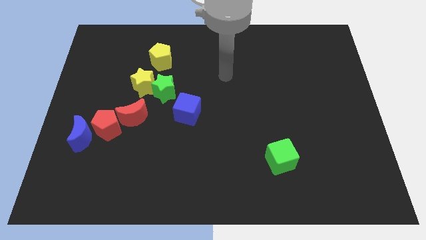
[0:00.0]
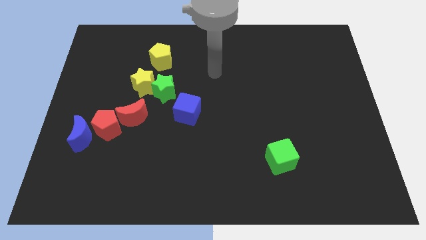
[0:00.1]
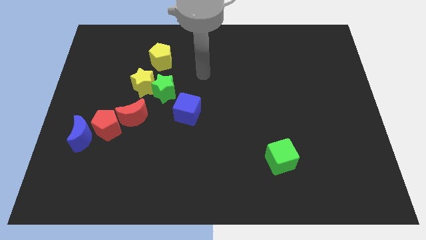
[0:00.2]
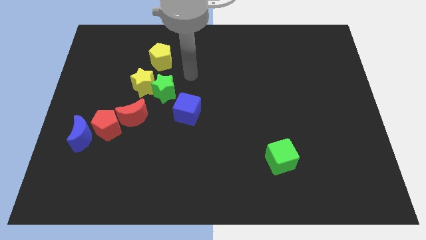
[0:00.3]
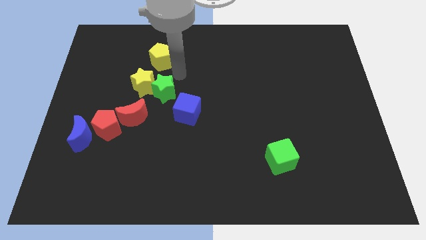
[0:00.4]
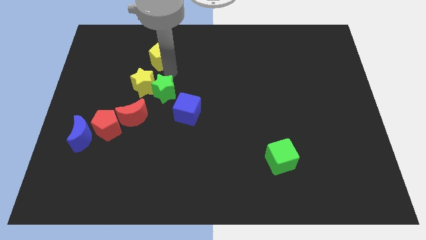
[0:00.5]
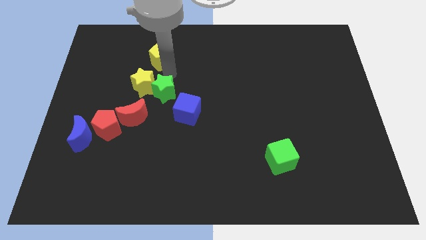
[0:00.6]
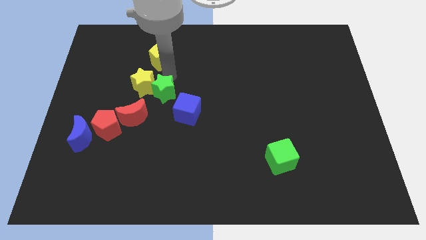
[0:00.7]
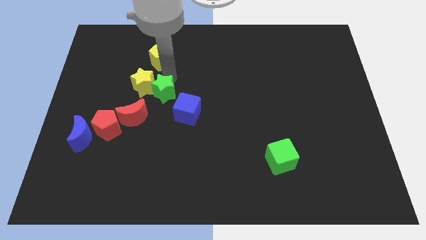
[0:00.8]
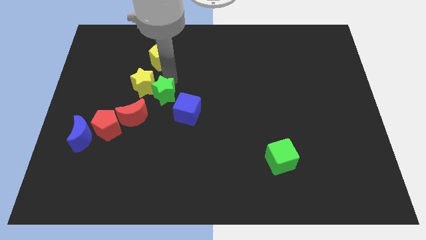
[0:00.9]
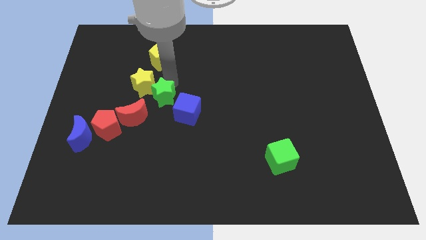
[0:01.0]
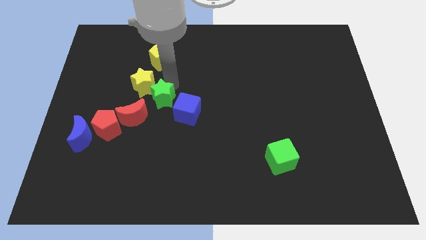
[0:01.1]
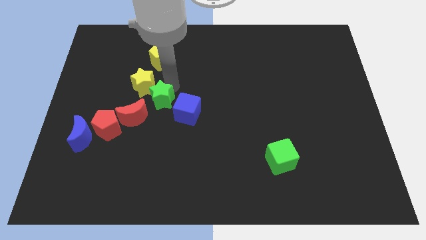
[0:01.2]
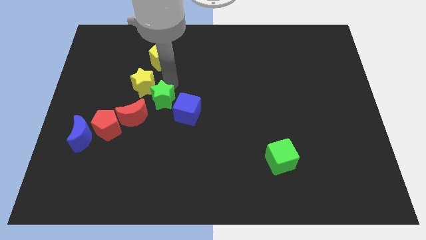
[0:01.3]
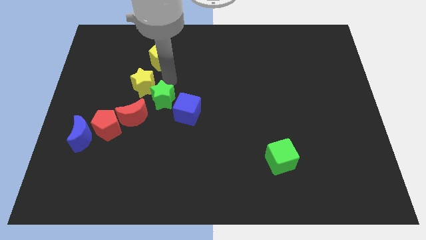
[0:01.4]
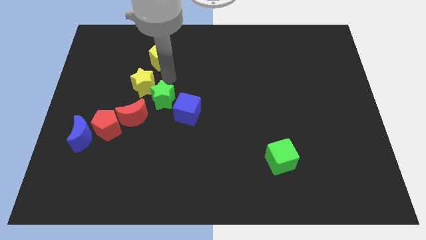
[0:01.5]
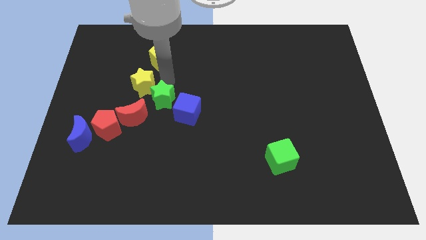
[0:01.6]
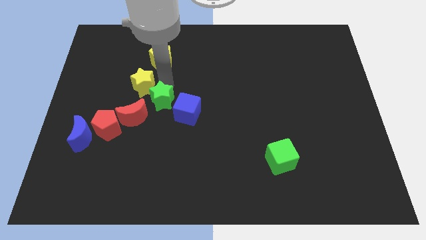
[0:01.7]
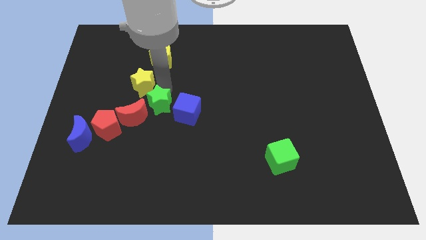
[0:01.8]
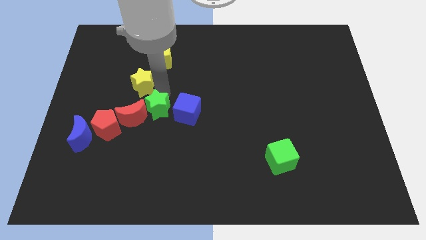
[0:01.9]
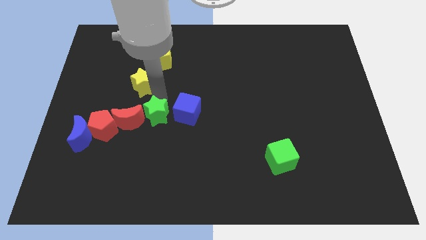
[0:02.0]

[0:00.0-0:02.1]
push the green star a bit down

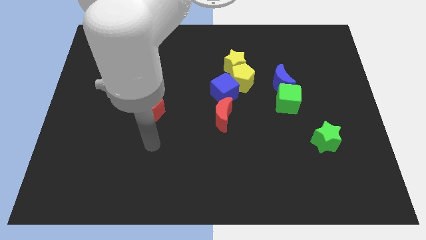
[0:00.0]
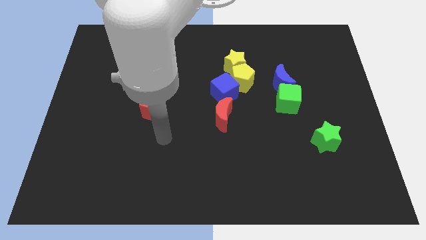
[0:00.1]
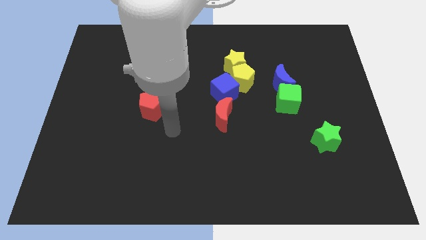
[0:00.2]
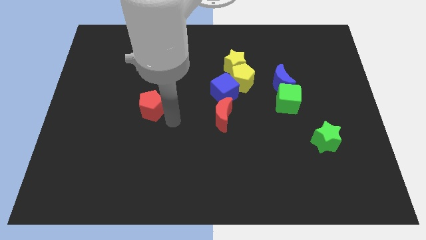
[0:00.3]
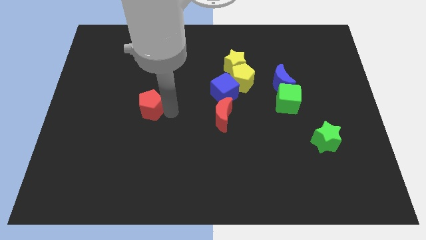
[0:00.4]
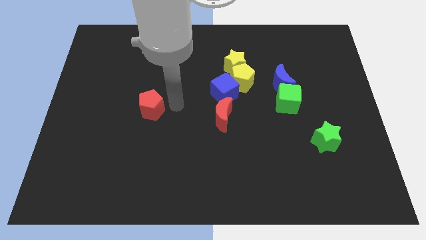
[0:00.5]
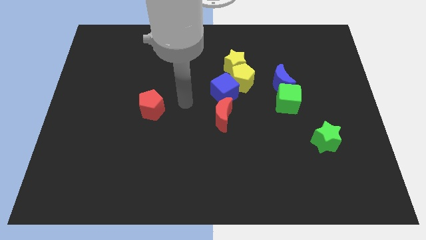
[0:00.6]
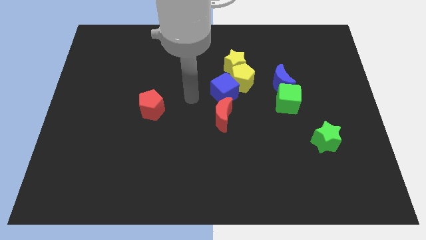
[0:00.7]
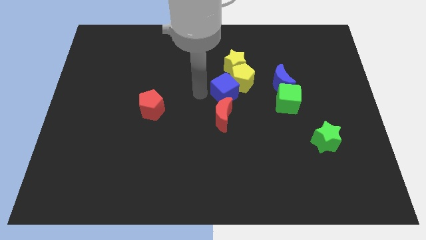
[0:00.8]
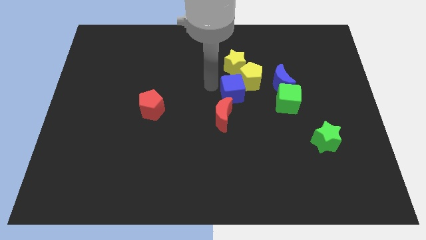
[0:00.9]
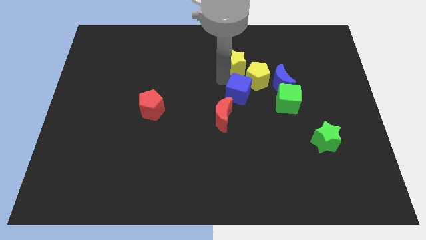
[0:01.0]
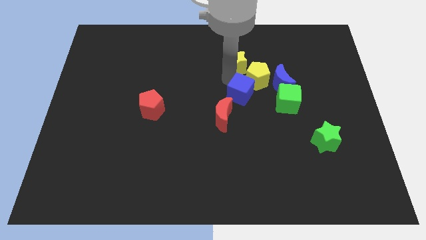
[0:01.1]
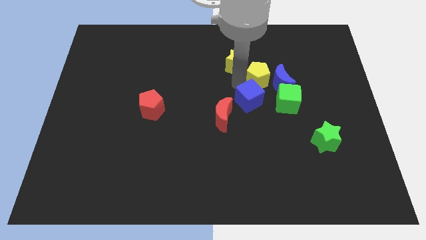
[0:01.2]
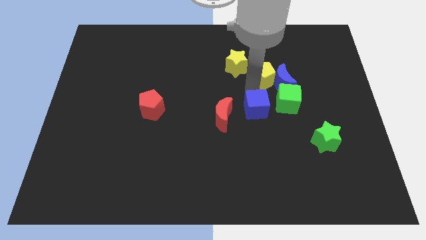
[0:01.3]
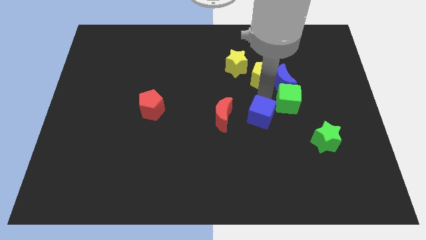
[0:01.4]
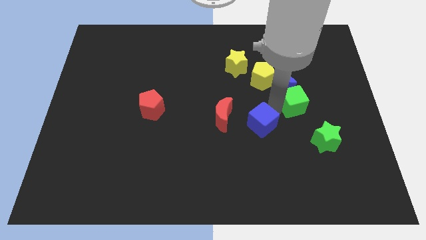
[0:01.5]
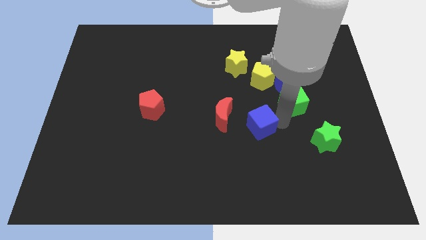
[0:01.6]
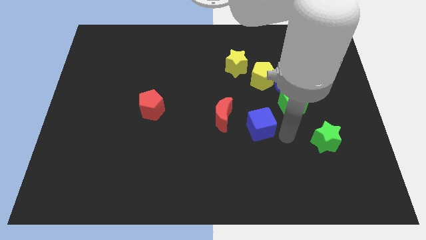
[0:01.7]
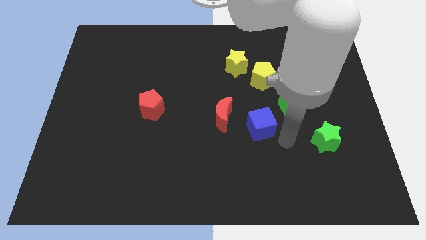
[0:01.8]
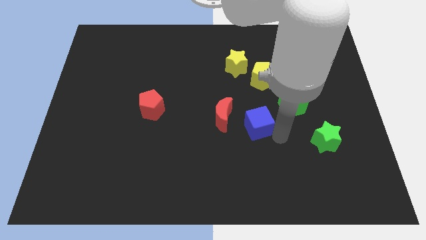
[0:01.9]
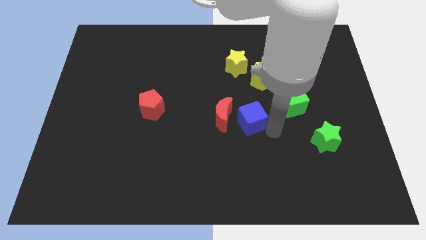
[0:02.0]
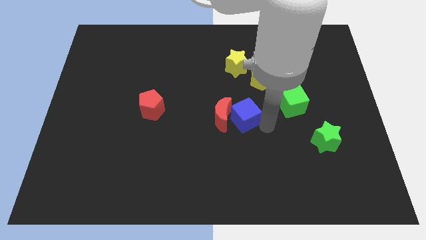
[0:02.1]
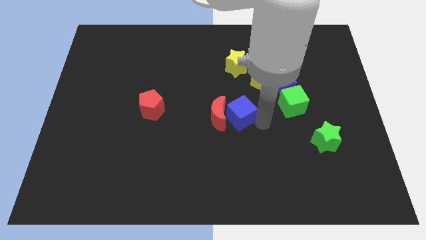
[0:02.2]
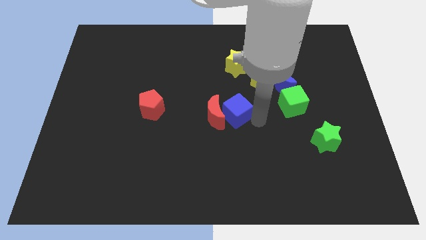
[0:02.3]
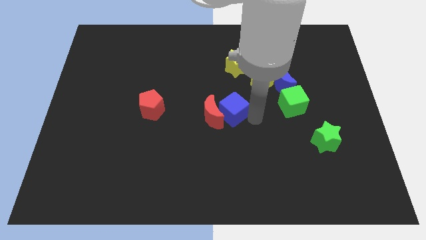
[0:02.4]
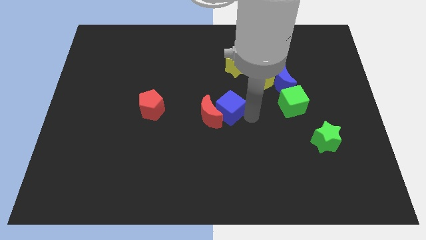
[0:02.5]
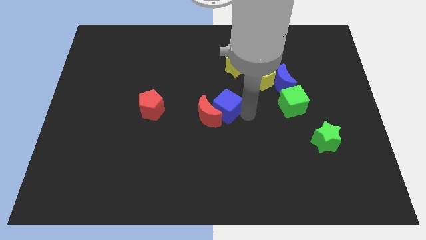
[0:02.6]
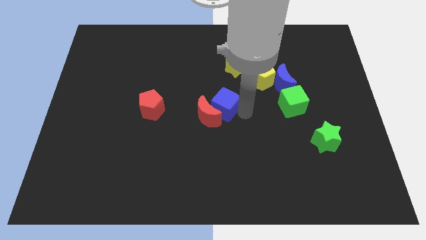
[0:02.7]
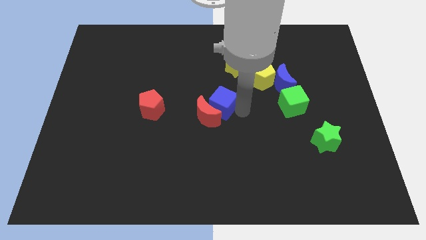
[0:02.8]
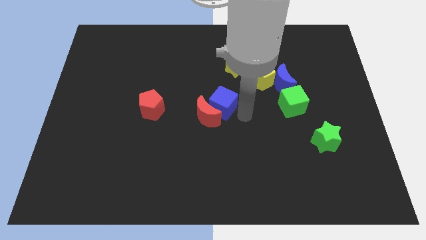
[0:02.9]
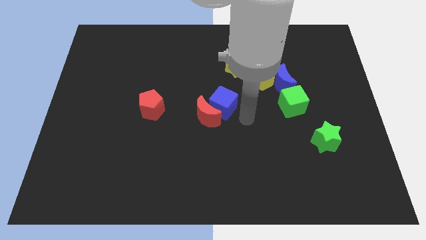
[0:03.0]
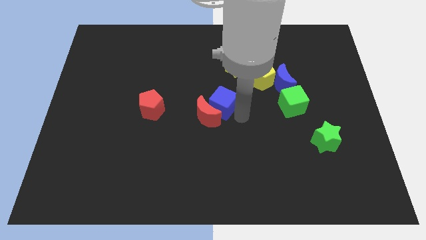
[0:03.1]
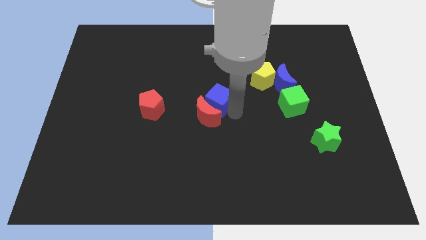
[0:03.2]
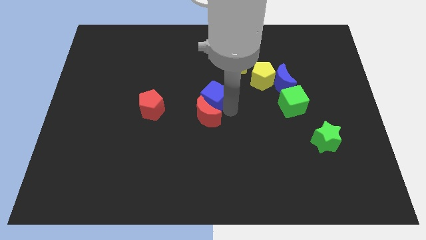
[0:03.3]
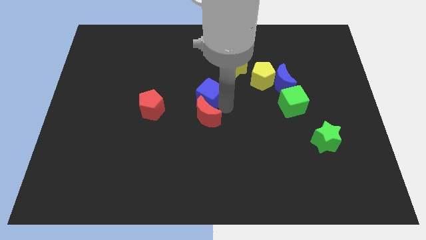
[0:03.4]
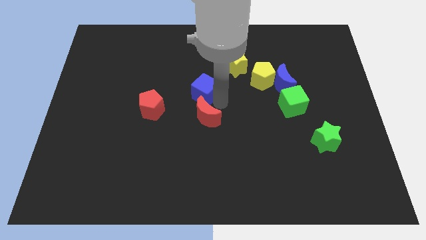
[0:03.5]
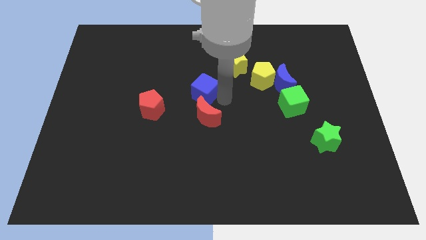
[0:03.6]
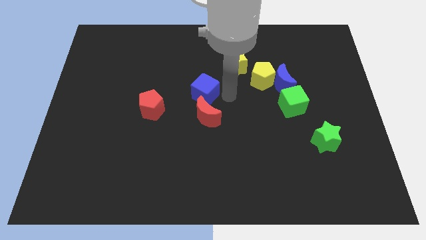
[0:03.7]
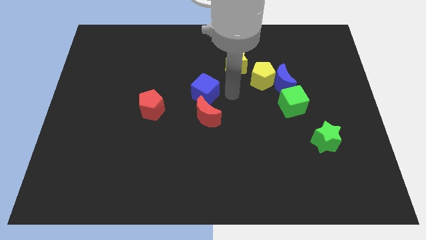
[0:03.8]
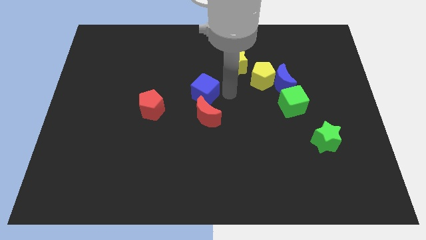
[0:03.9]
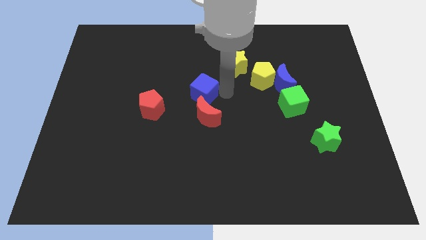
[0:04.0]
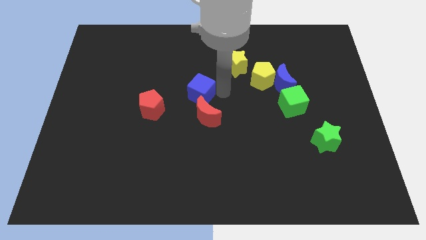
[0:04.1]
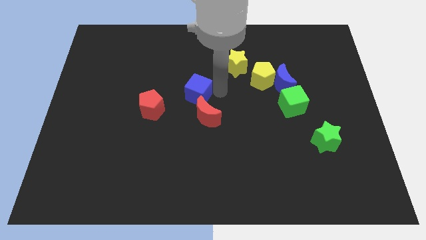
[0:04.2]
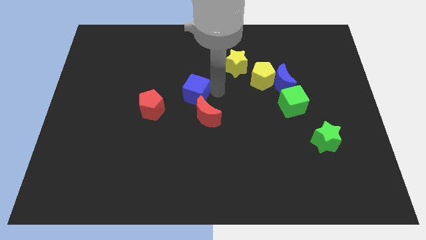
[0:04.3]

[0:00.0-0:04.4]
slightly slide the blue cube to the left

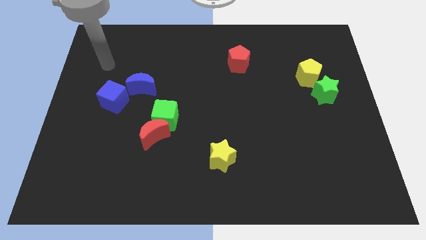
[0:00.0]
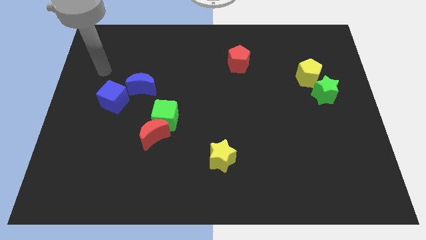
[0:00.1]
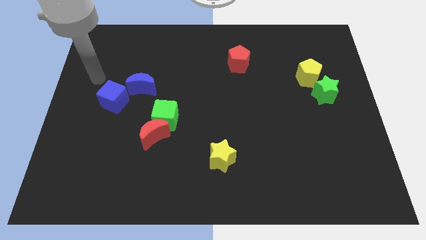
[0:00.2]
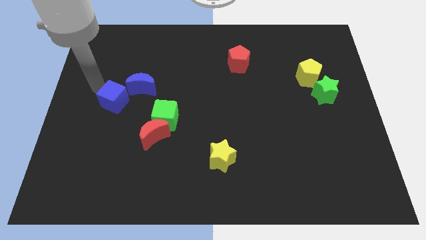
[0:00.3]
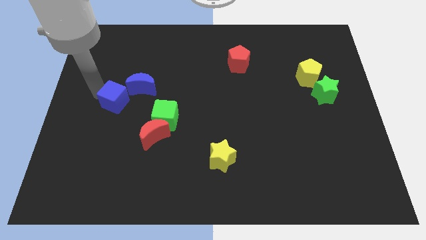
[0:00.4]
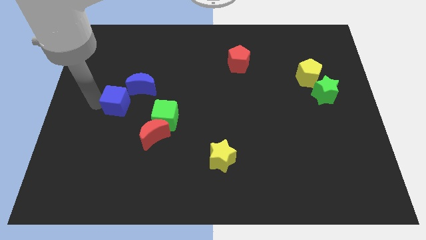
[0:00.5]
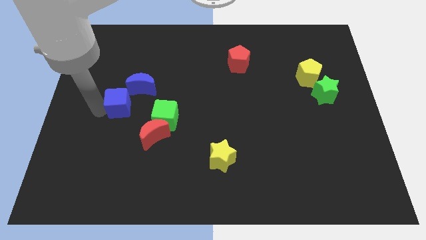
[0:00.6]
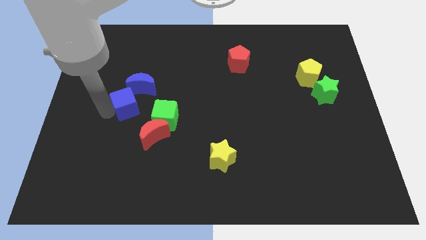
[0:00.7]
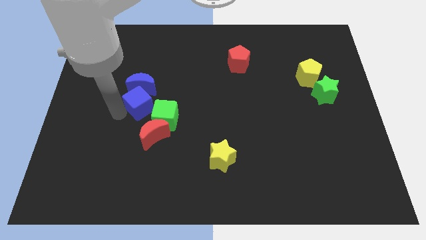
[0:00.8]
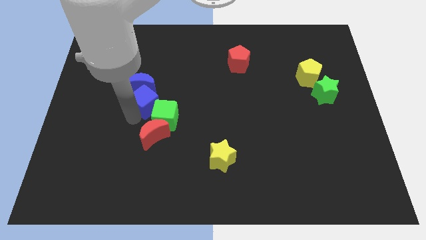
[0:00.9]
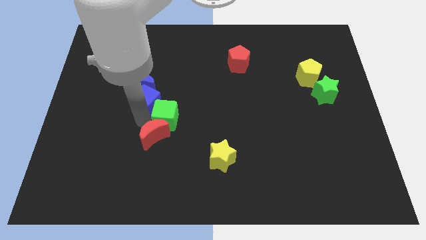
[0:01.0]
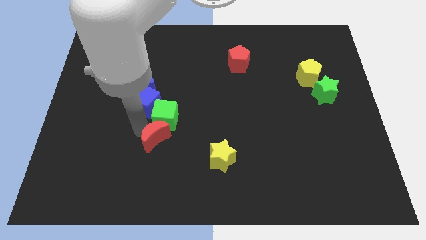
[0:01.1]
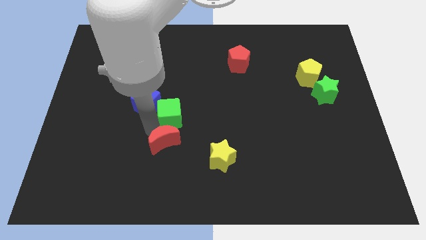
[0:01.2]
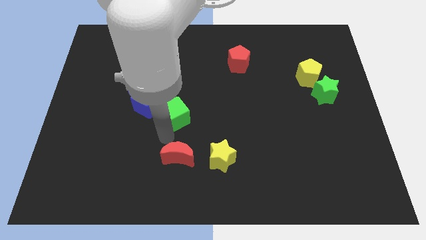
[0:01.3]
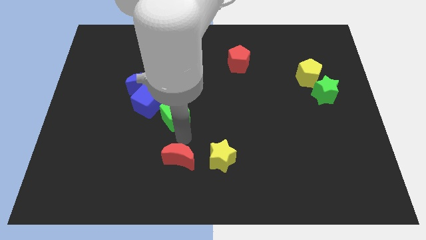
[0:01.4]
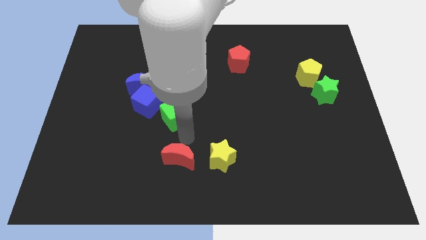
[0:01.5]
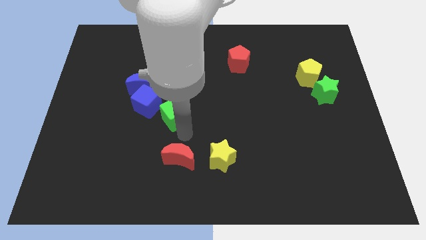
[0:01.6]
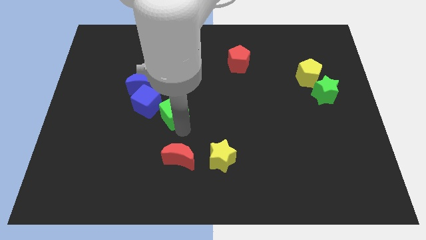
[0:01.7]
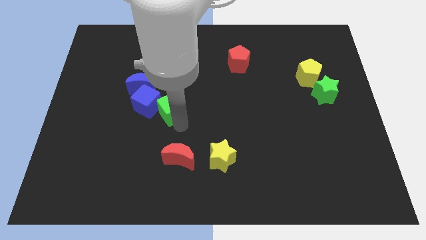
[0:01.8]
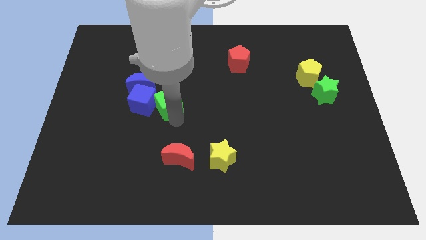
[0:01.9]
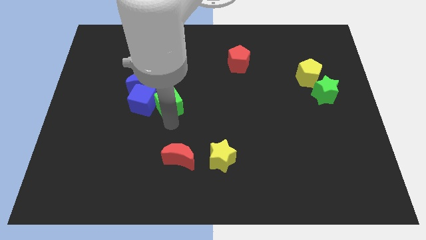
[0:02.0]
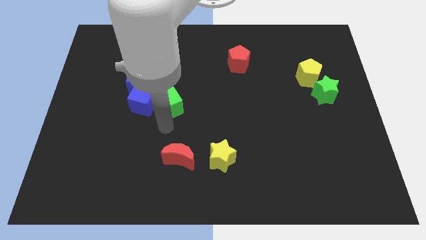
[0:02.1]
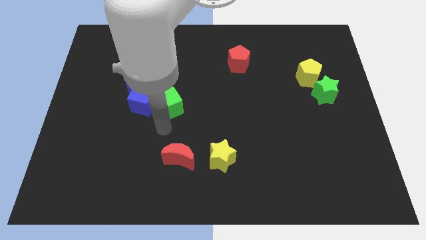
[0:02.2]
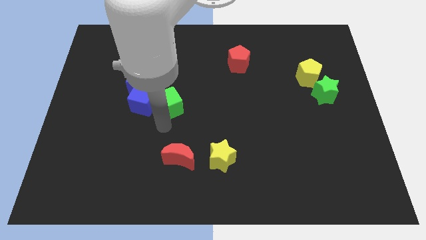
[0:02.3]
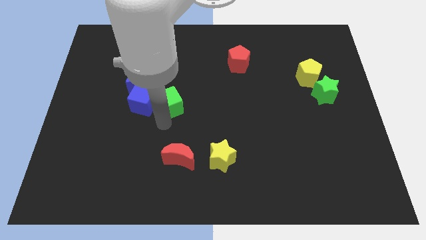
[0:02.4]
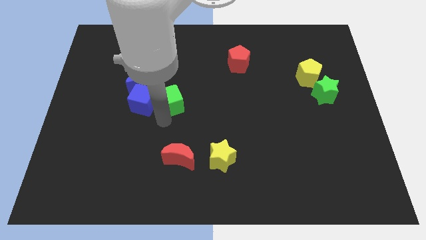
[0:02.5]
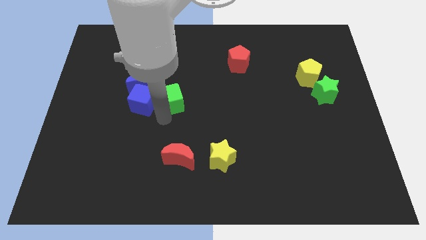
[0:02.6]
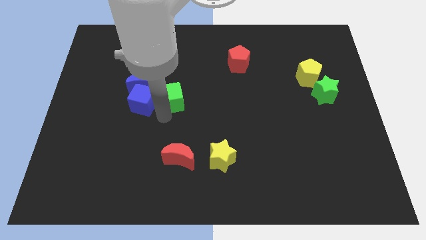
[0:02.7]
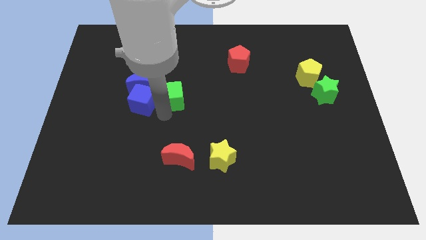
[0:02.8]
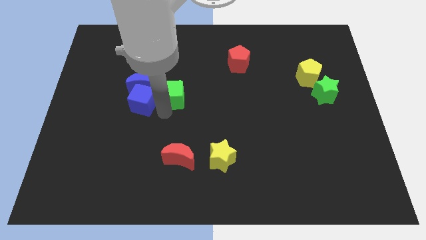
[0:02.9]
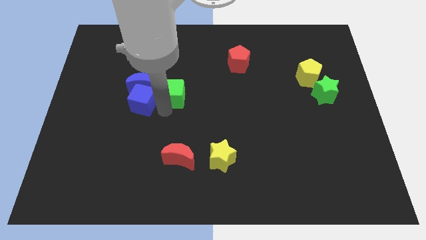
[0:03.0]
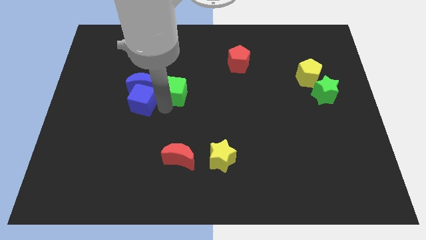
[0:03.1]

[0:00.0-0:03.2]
slide the green cube a little upwards
